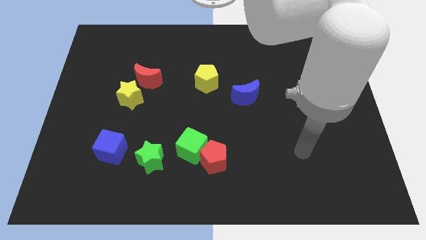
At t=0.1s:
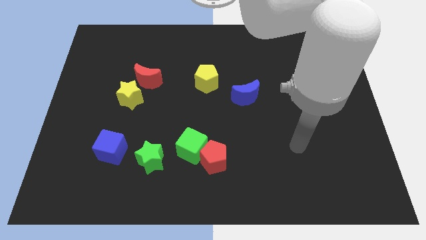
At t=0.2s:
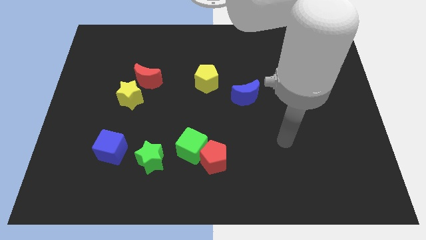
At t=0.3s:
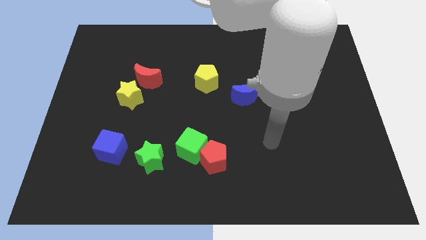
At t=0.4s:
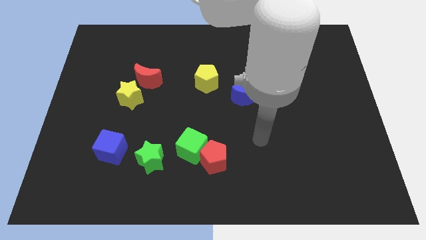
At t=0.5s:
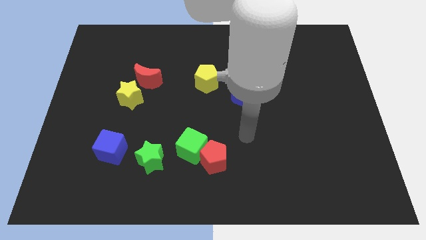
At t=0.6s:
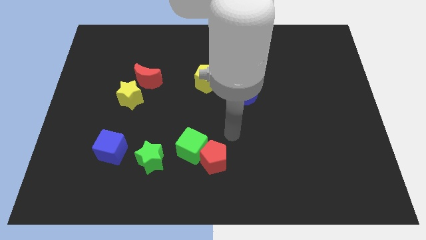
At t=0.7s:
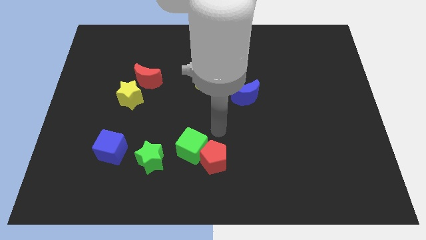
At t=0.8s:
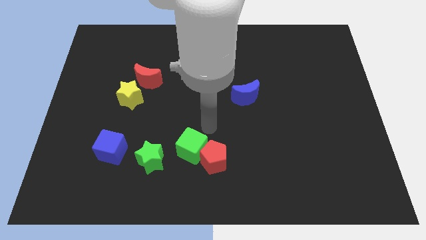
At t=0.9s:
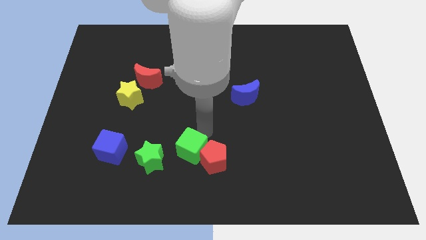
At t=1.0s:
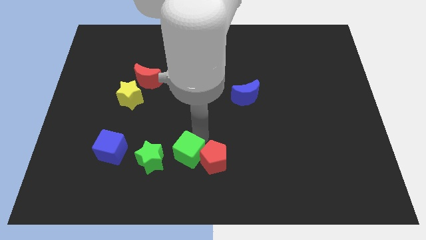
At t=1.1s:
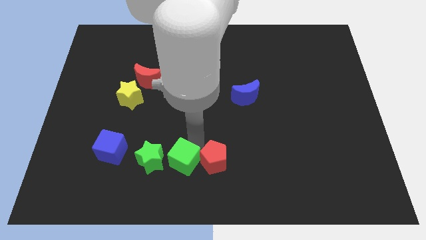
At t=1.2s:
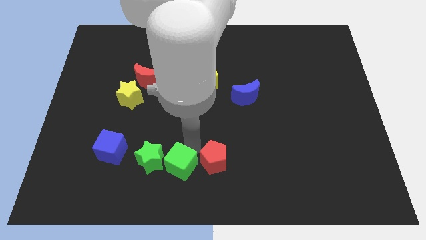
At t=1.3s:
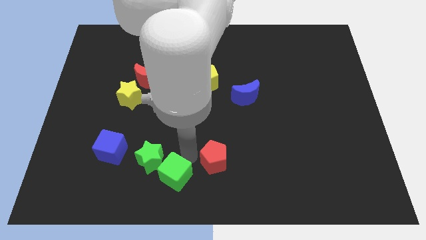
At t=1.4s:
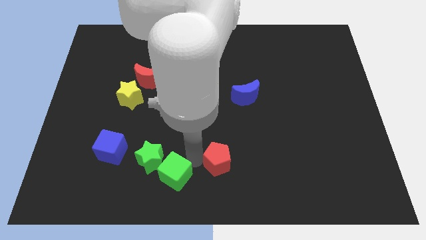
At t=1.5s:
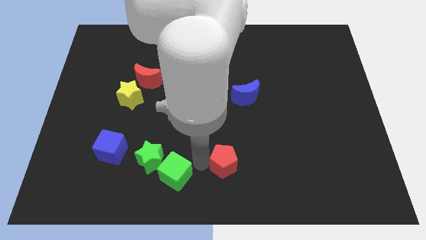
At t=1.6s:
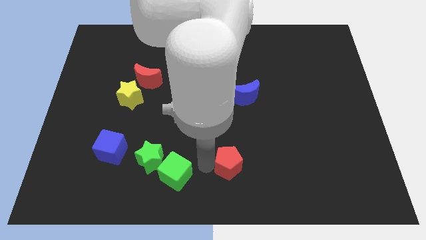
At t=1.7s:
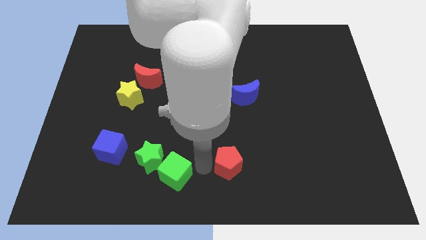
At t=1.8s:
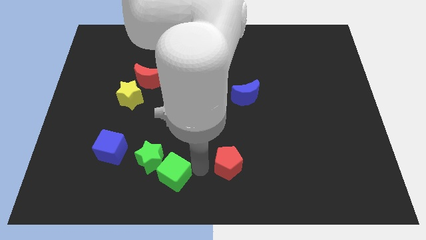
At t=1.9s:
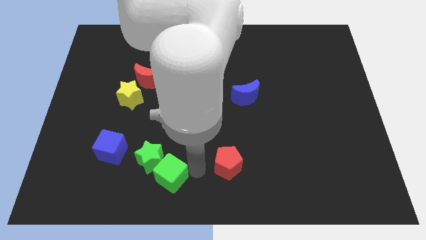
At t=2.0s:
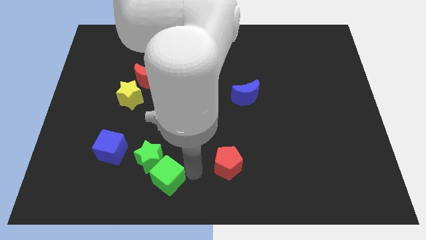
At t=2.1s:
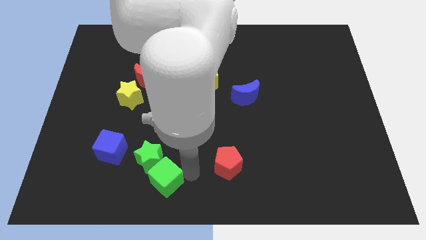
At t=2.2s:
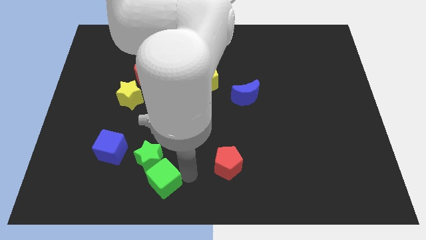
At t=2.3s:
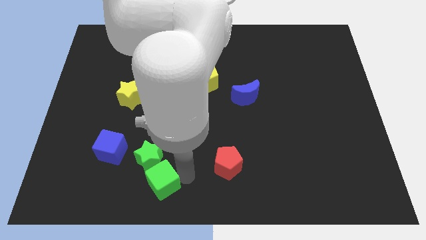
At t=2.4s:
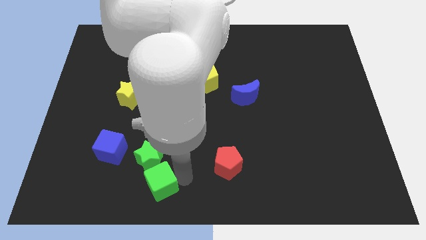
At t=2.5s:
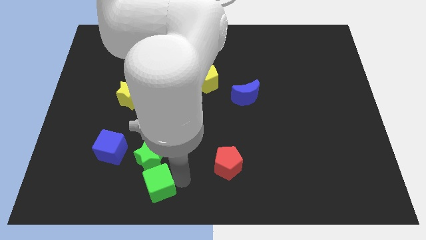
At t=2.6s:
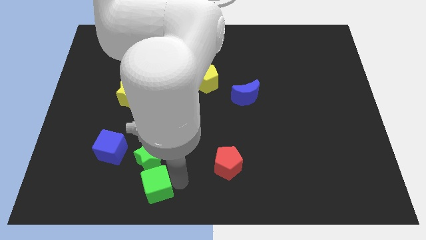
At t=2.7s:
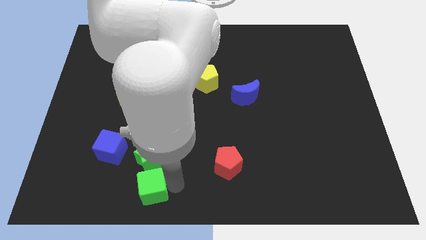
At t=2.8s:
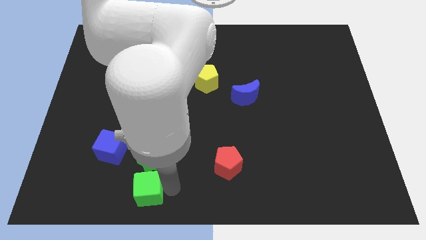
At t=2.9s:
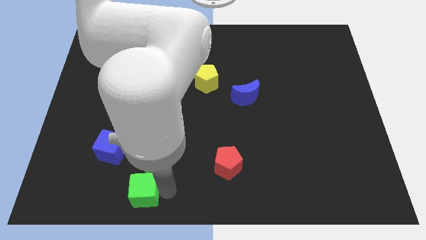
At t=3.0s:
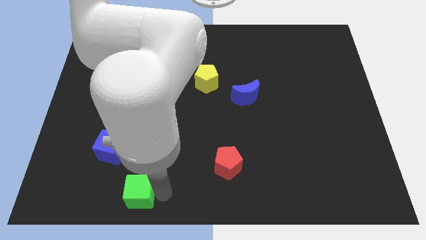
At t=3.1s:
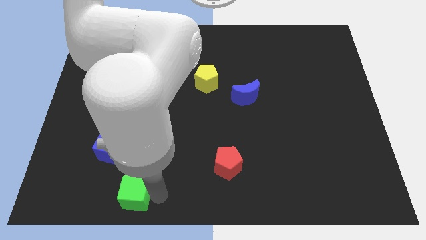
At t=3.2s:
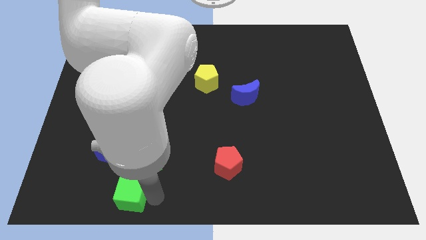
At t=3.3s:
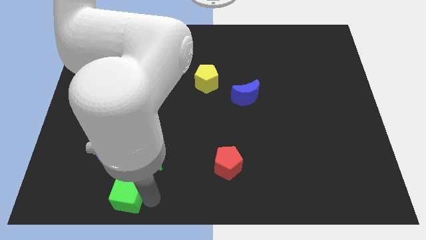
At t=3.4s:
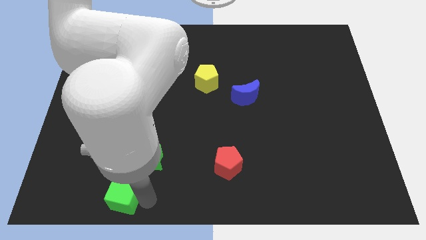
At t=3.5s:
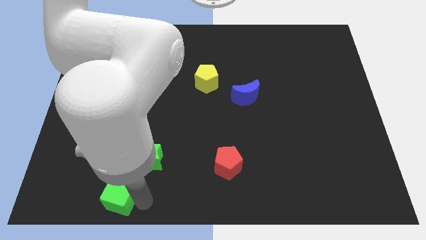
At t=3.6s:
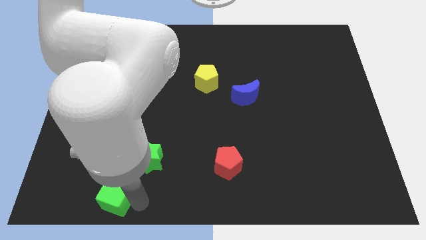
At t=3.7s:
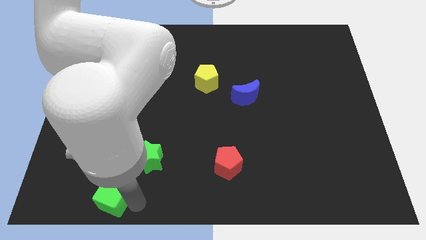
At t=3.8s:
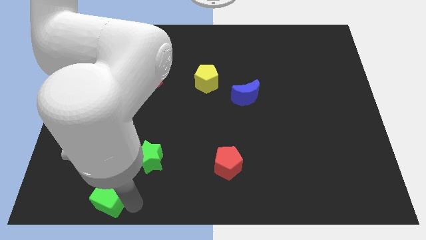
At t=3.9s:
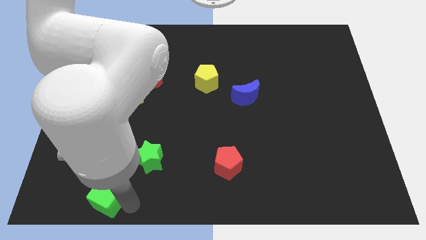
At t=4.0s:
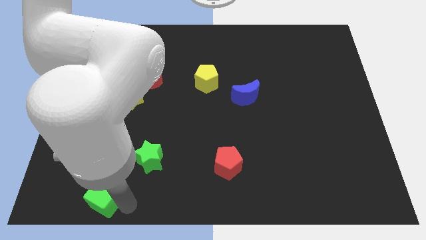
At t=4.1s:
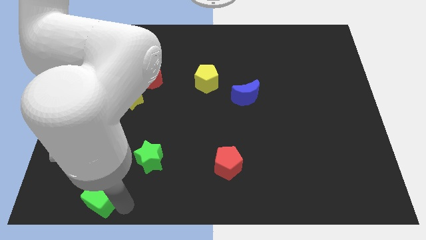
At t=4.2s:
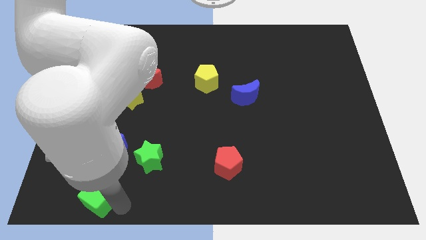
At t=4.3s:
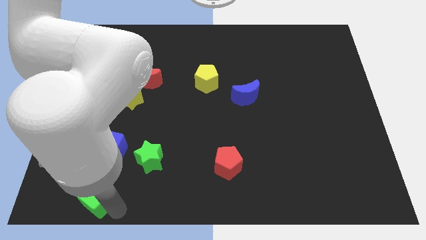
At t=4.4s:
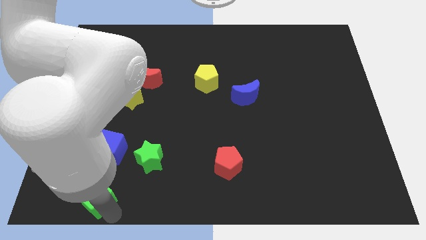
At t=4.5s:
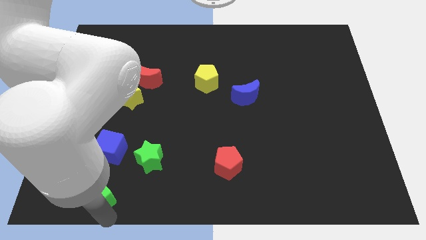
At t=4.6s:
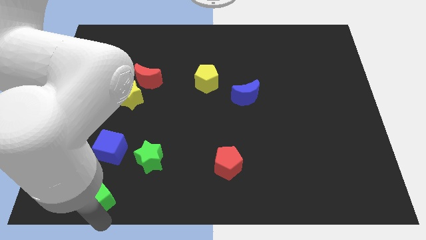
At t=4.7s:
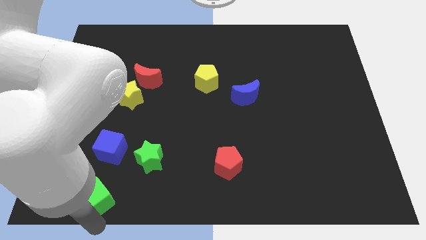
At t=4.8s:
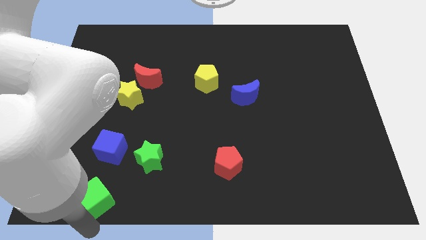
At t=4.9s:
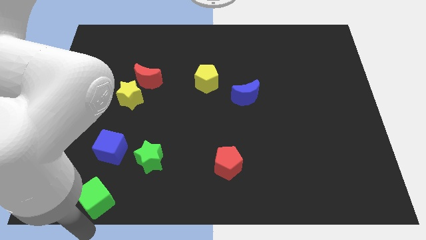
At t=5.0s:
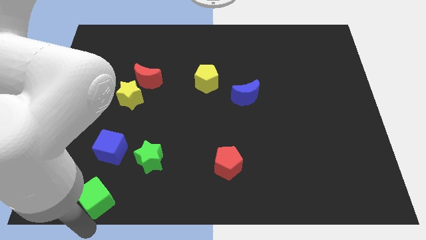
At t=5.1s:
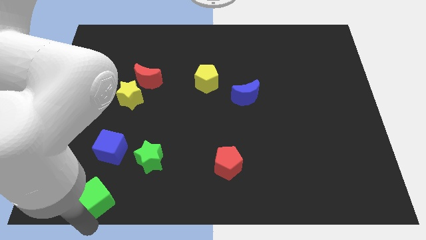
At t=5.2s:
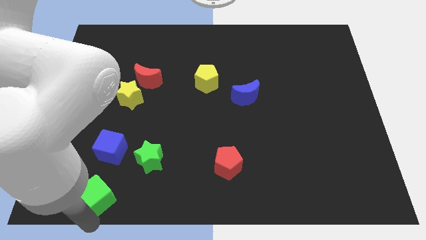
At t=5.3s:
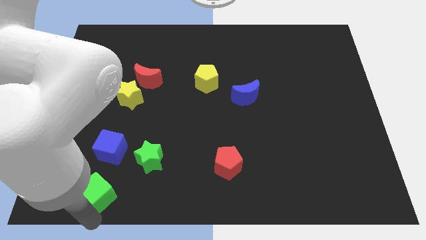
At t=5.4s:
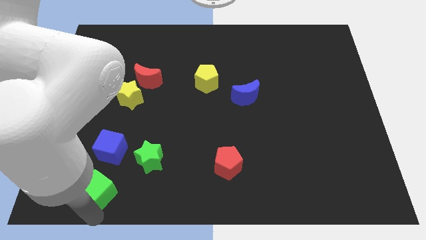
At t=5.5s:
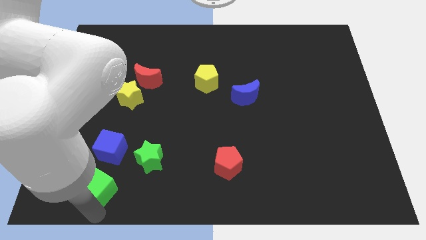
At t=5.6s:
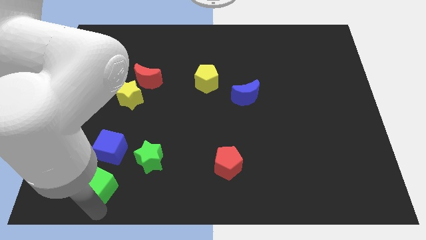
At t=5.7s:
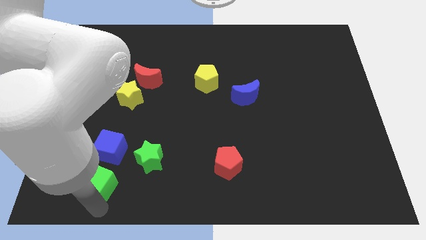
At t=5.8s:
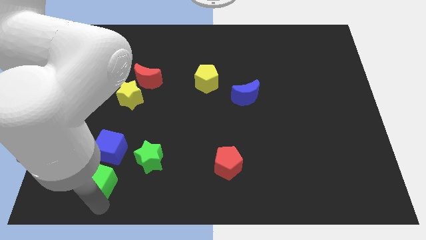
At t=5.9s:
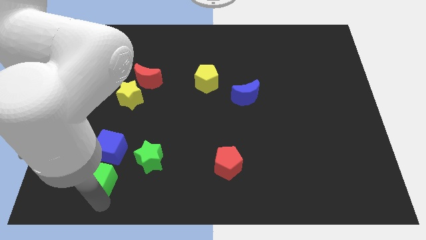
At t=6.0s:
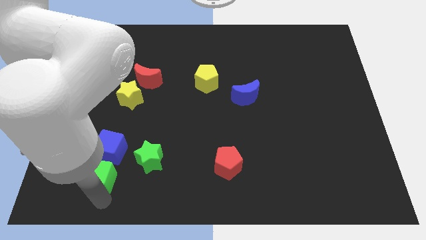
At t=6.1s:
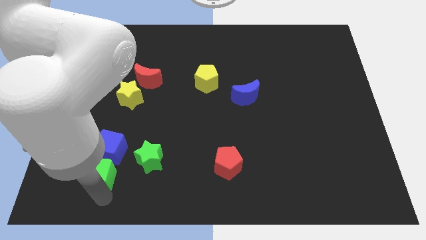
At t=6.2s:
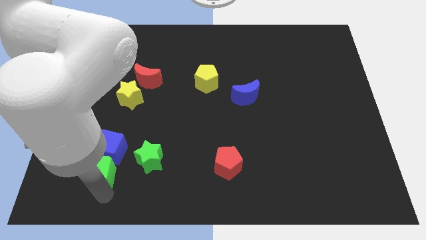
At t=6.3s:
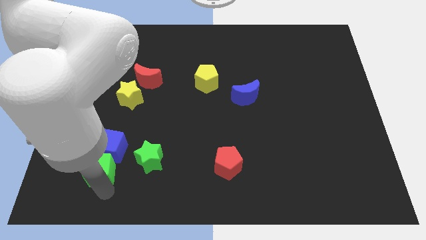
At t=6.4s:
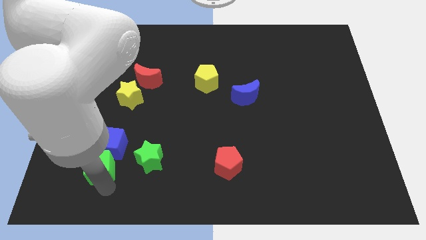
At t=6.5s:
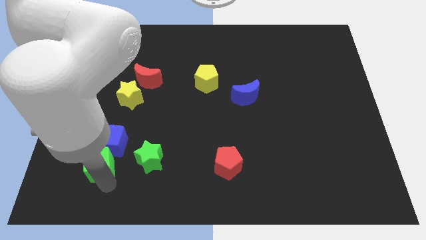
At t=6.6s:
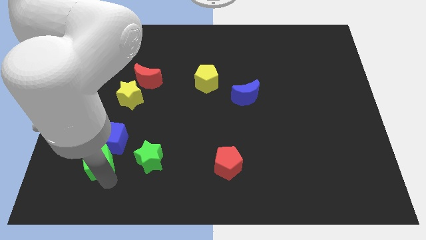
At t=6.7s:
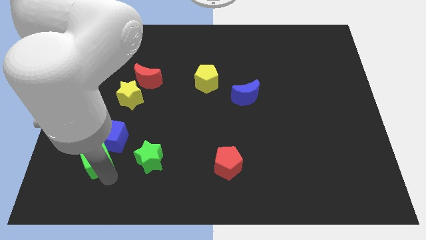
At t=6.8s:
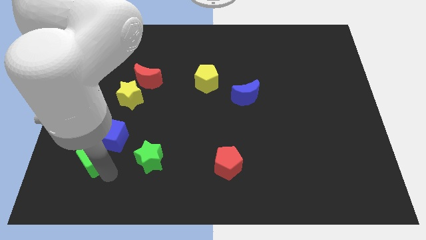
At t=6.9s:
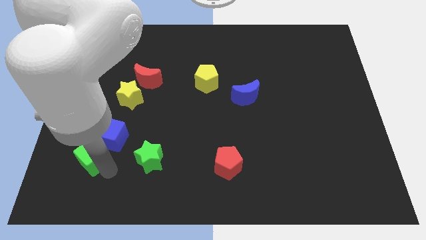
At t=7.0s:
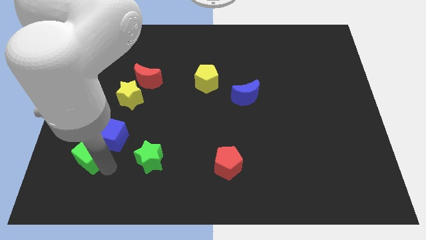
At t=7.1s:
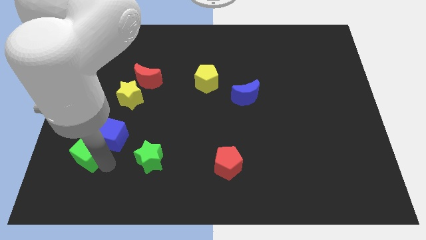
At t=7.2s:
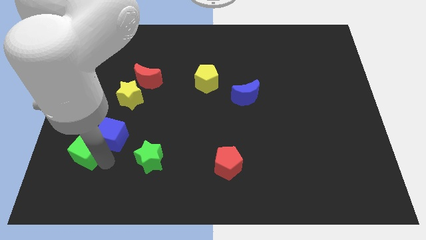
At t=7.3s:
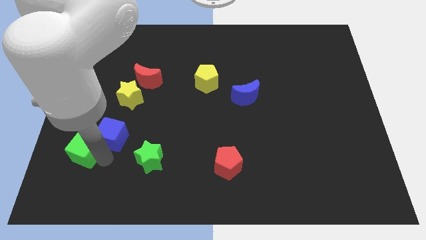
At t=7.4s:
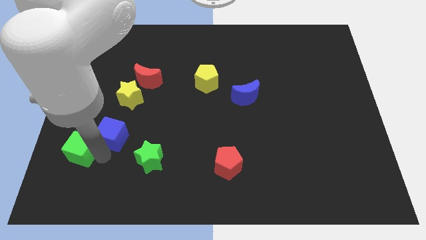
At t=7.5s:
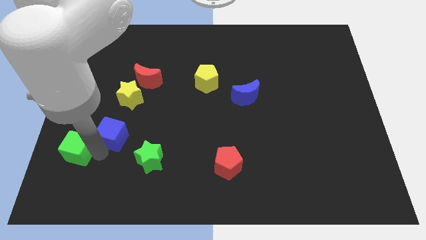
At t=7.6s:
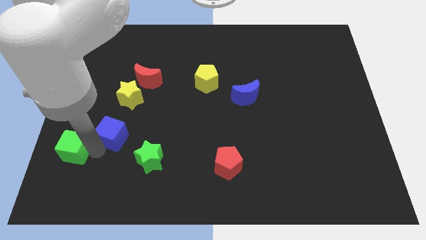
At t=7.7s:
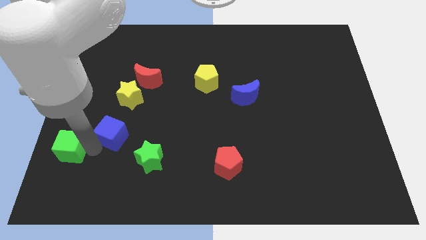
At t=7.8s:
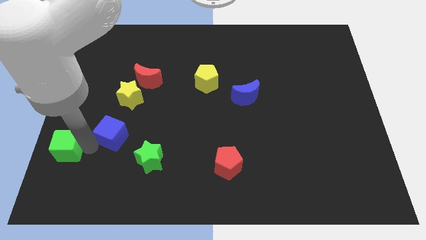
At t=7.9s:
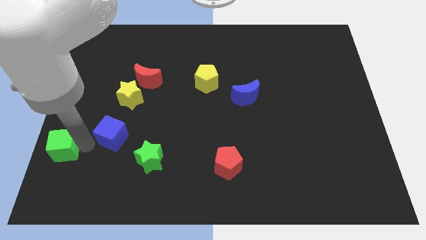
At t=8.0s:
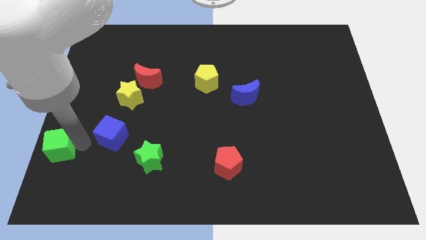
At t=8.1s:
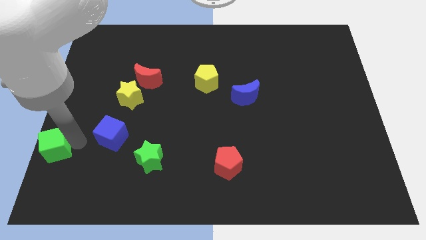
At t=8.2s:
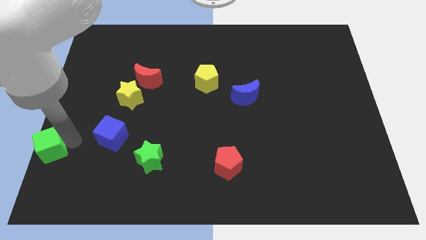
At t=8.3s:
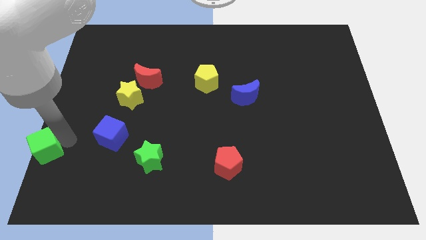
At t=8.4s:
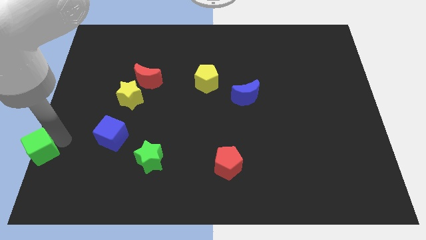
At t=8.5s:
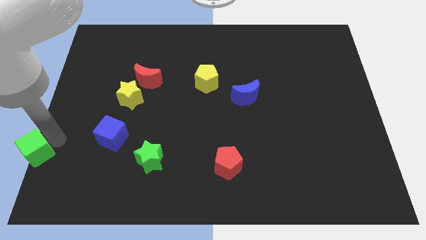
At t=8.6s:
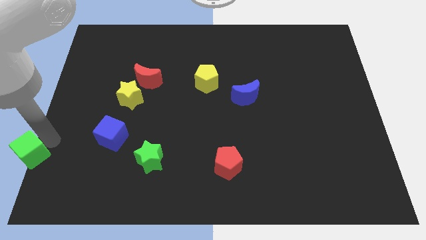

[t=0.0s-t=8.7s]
put the green cube to the bottom left
